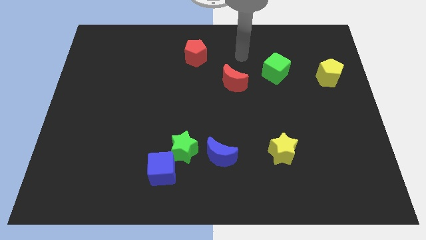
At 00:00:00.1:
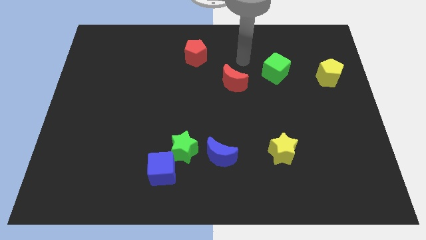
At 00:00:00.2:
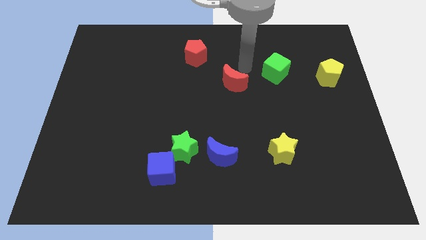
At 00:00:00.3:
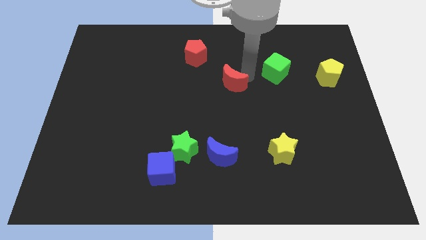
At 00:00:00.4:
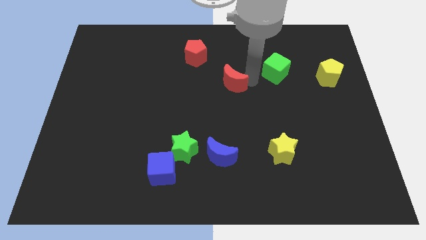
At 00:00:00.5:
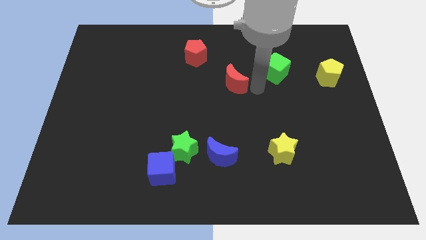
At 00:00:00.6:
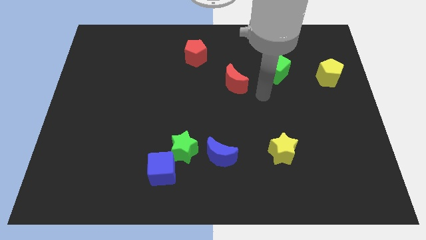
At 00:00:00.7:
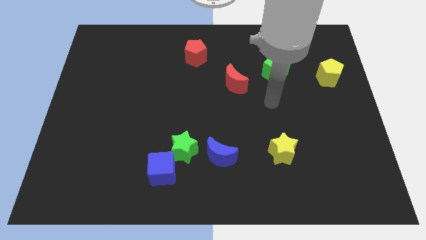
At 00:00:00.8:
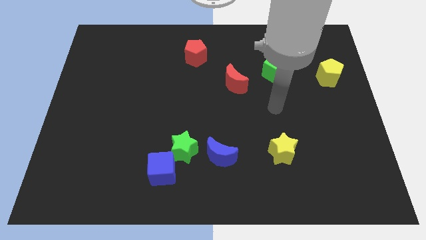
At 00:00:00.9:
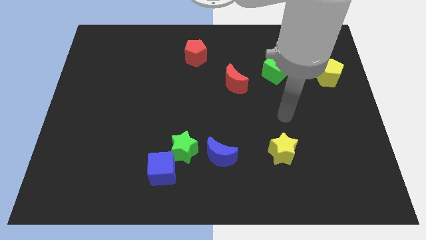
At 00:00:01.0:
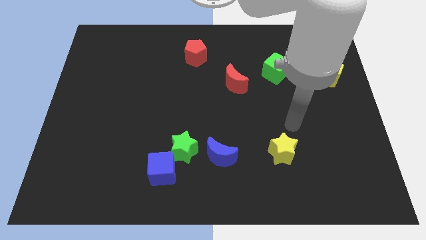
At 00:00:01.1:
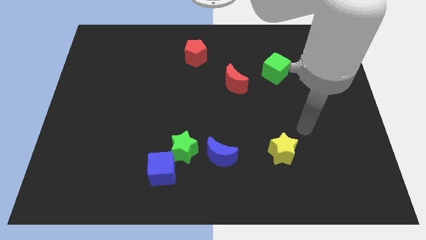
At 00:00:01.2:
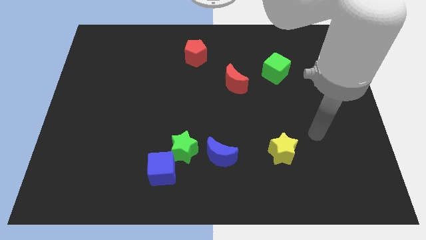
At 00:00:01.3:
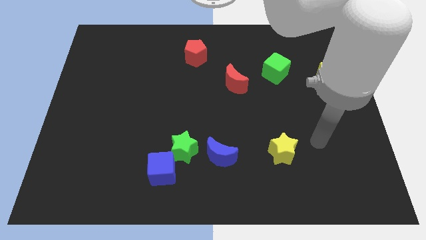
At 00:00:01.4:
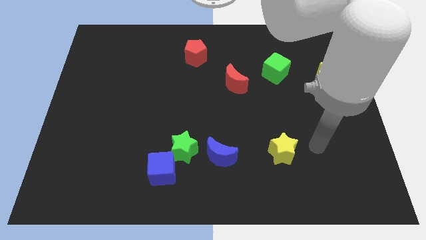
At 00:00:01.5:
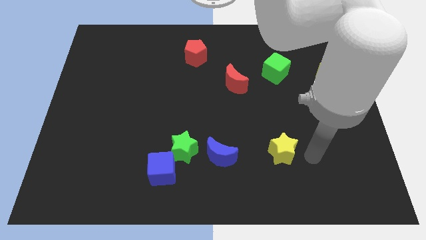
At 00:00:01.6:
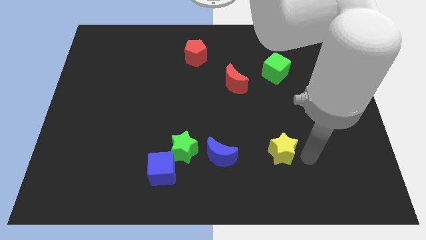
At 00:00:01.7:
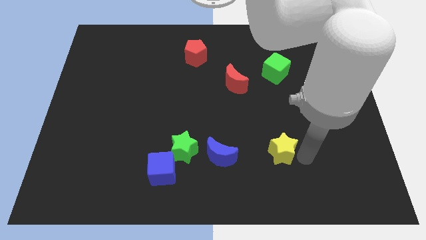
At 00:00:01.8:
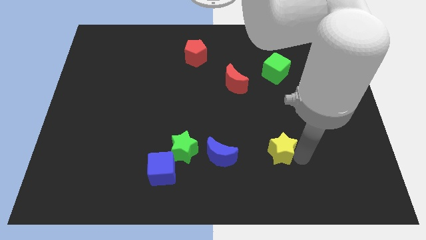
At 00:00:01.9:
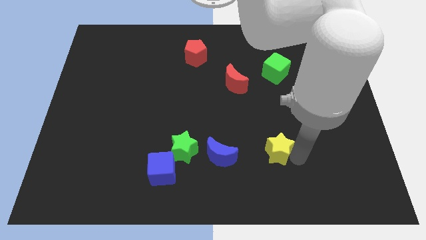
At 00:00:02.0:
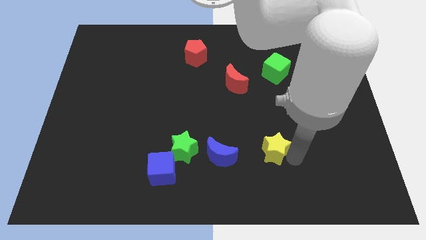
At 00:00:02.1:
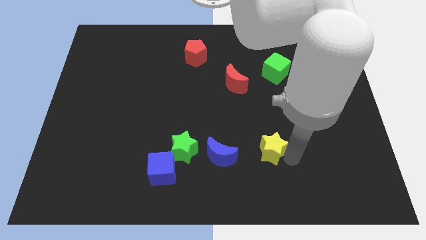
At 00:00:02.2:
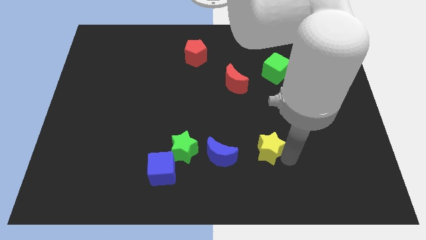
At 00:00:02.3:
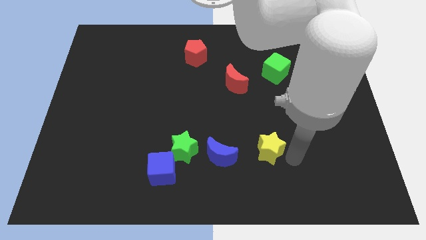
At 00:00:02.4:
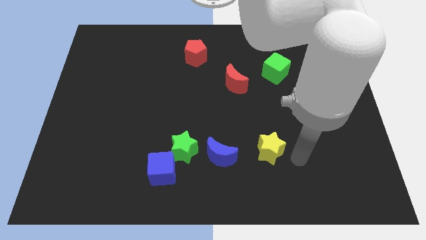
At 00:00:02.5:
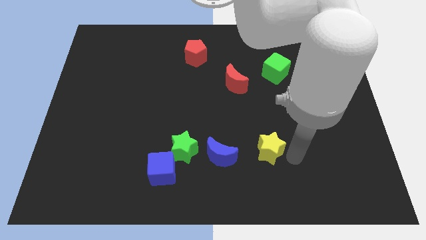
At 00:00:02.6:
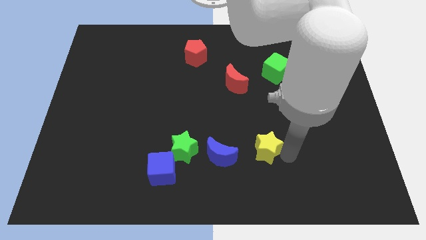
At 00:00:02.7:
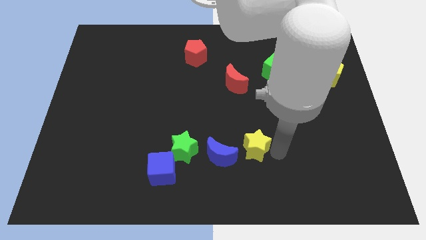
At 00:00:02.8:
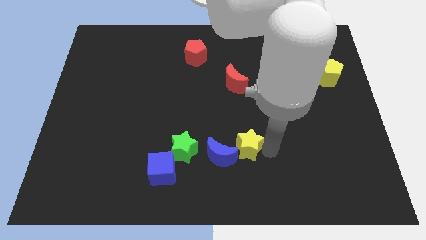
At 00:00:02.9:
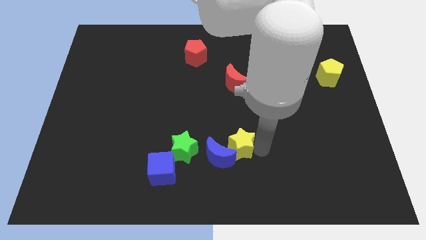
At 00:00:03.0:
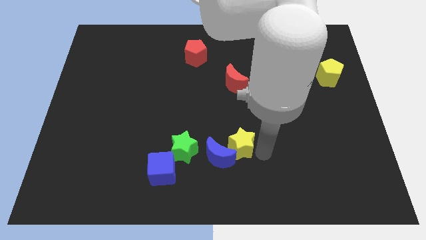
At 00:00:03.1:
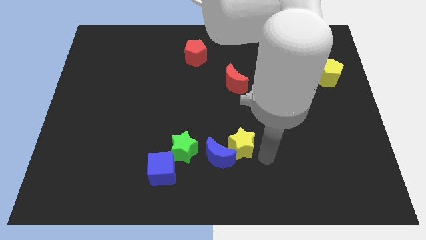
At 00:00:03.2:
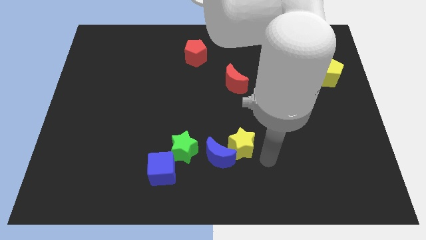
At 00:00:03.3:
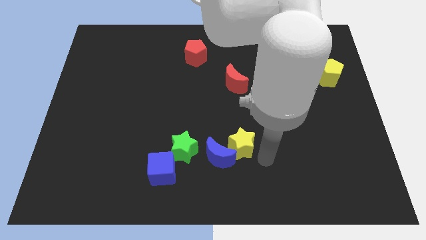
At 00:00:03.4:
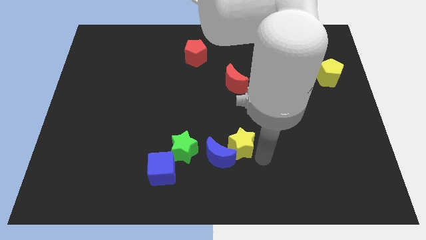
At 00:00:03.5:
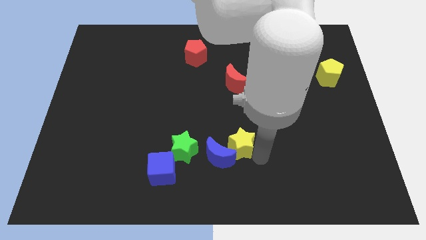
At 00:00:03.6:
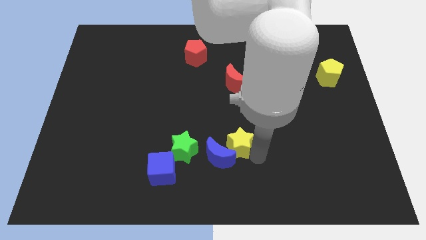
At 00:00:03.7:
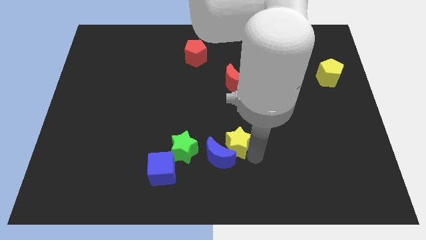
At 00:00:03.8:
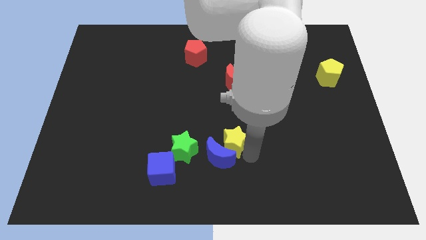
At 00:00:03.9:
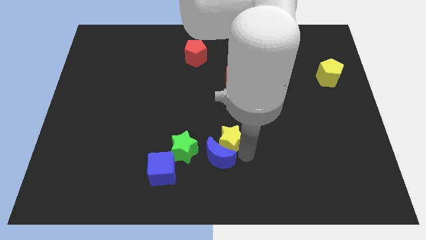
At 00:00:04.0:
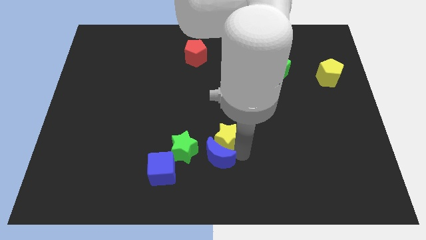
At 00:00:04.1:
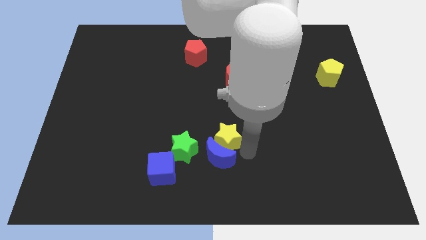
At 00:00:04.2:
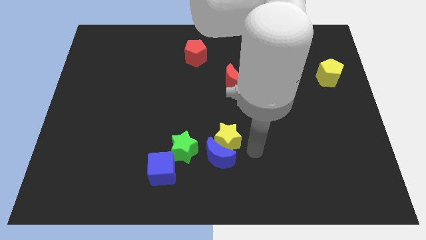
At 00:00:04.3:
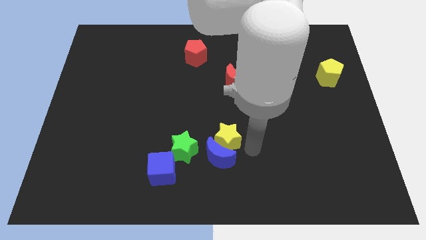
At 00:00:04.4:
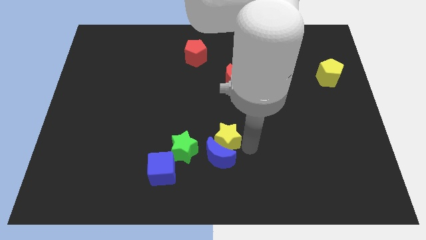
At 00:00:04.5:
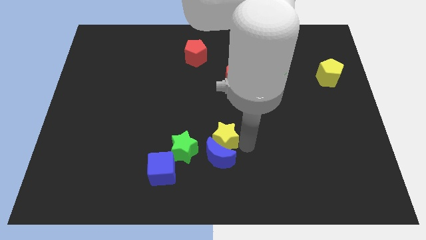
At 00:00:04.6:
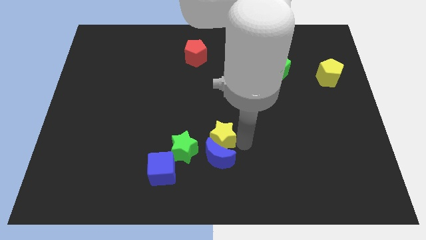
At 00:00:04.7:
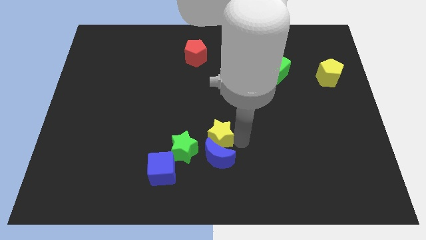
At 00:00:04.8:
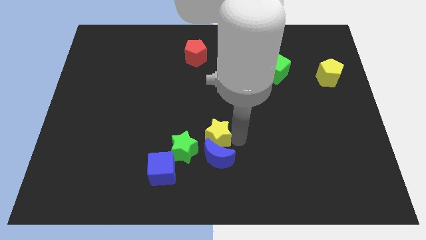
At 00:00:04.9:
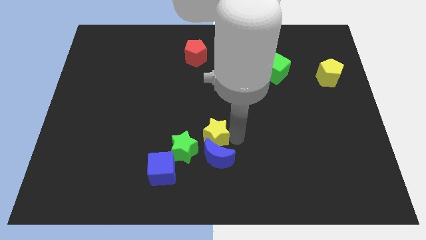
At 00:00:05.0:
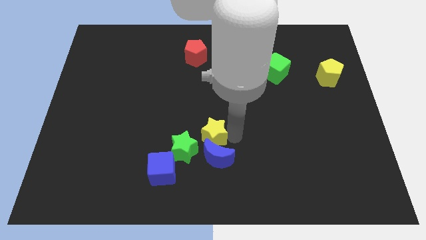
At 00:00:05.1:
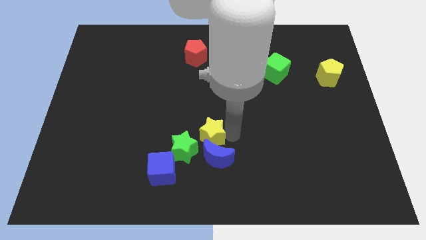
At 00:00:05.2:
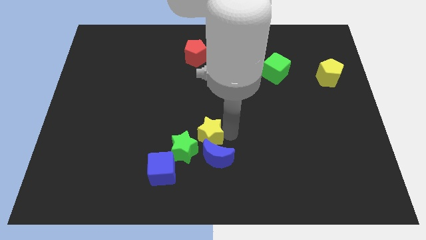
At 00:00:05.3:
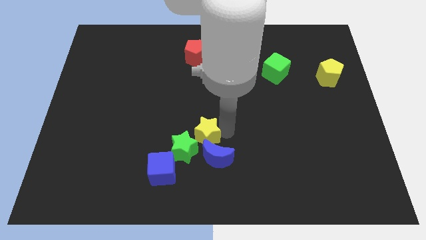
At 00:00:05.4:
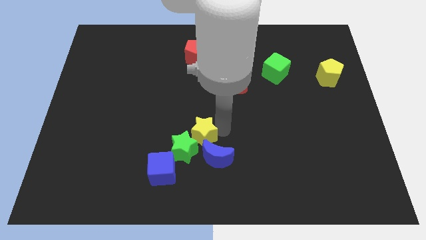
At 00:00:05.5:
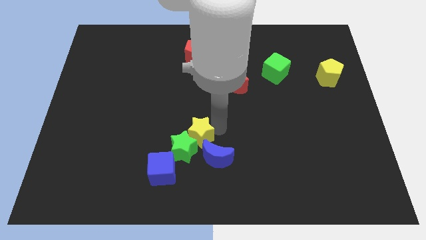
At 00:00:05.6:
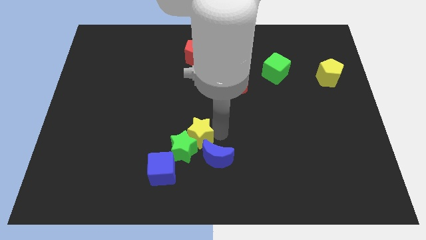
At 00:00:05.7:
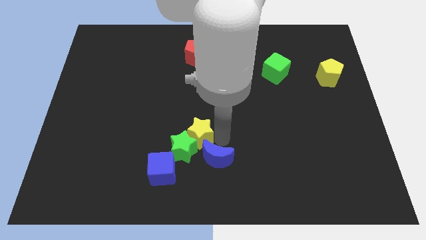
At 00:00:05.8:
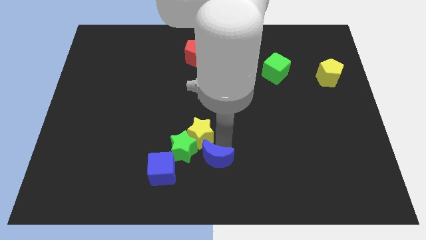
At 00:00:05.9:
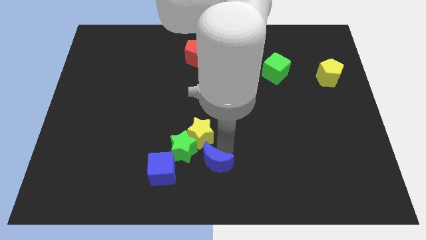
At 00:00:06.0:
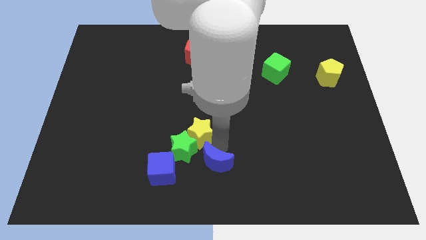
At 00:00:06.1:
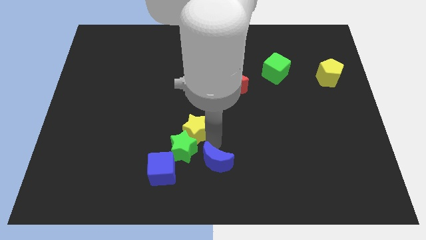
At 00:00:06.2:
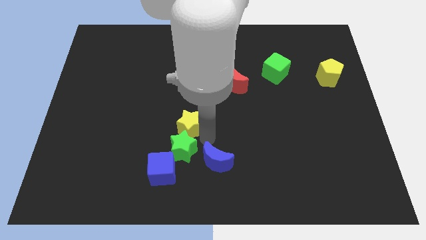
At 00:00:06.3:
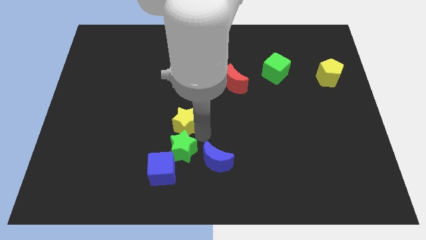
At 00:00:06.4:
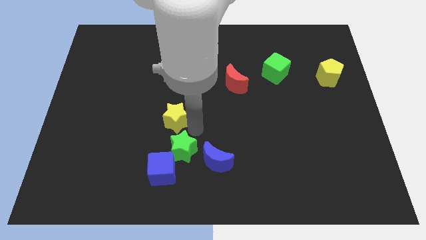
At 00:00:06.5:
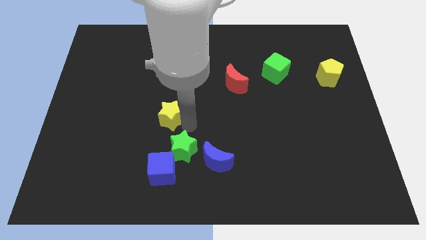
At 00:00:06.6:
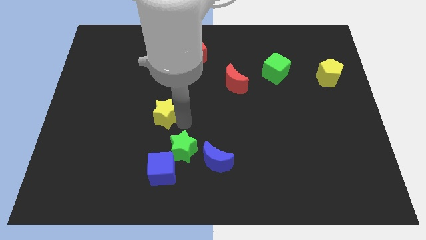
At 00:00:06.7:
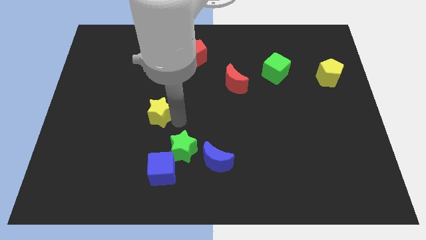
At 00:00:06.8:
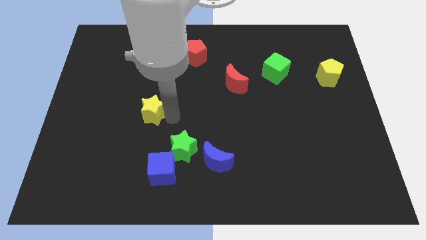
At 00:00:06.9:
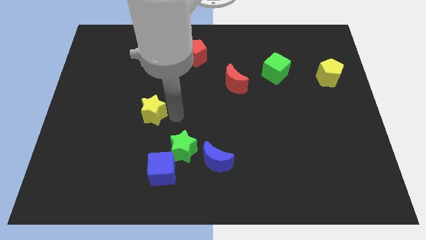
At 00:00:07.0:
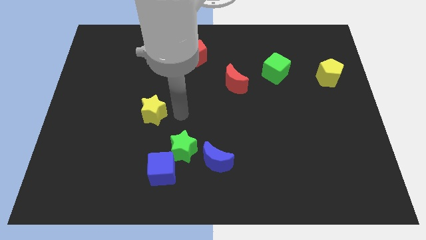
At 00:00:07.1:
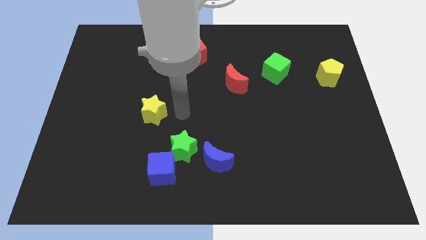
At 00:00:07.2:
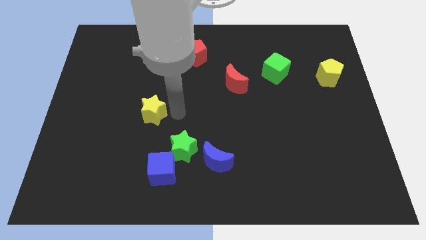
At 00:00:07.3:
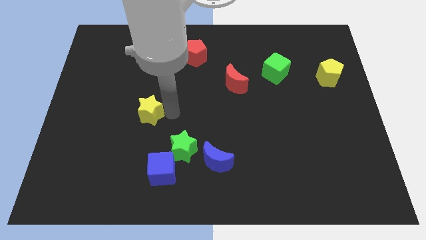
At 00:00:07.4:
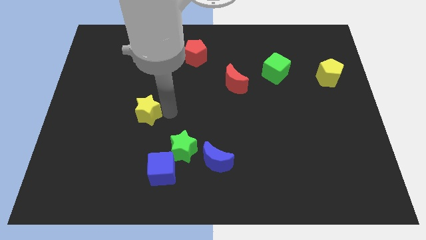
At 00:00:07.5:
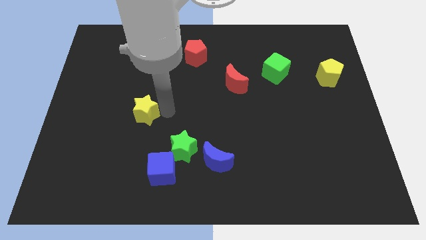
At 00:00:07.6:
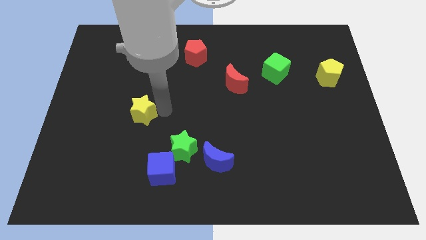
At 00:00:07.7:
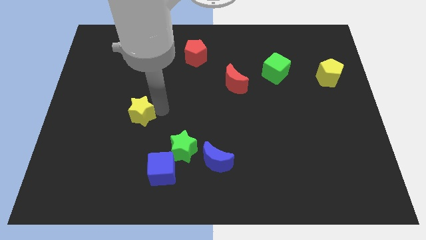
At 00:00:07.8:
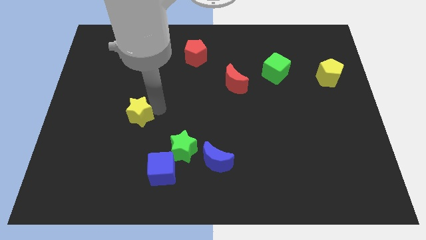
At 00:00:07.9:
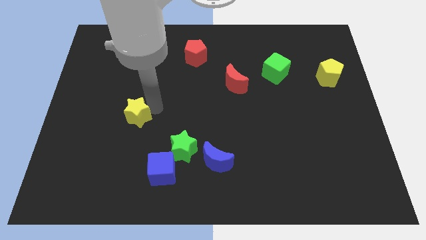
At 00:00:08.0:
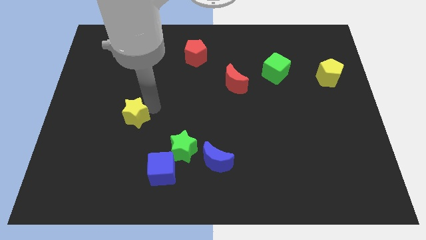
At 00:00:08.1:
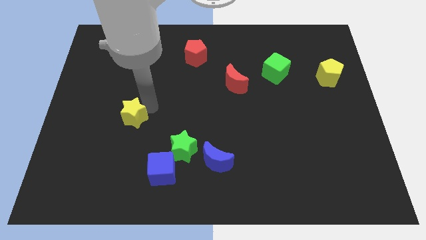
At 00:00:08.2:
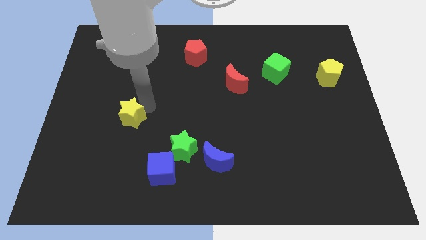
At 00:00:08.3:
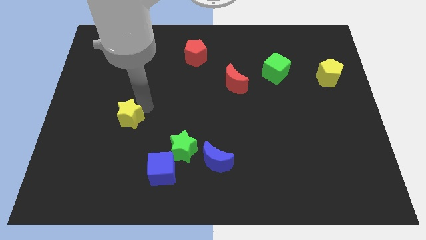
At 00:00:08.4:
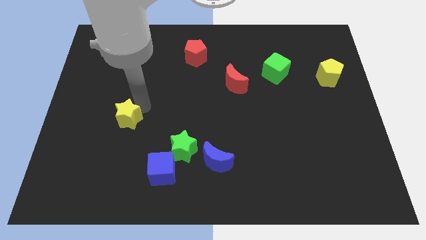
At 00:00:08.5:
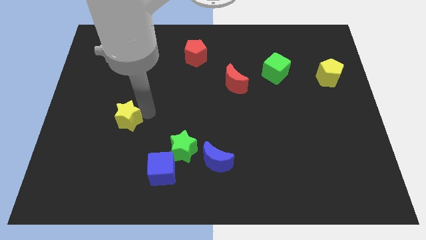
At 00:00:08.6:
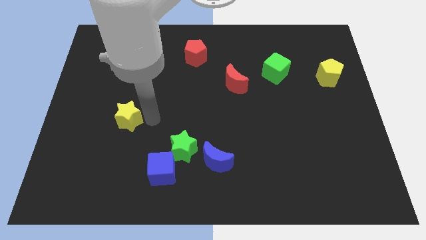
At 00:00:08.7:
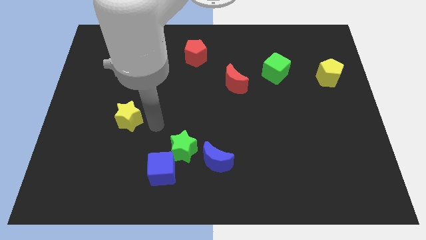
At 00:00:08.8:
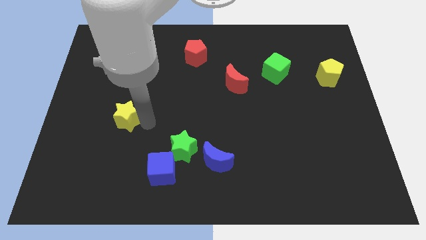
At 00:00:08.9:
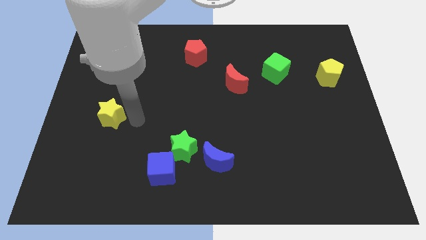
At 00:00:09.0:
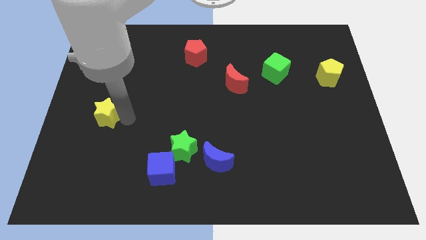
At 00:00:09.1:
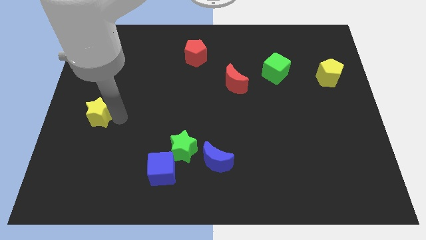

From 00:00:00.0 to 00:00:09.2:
slide the yellow star to the left side
